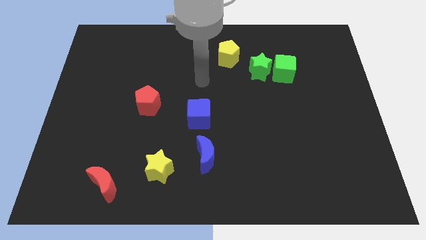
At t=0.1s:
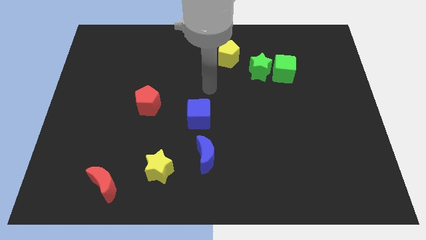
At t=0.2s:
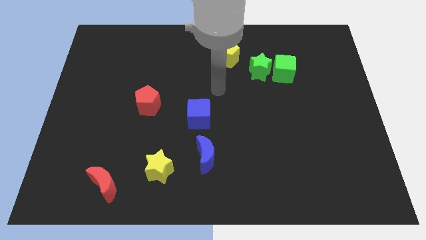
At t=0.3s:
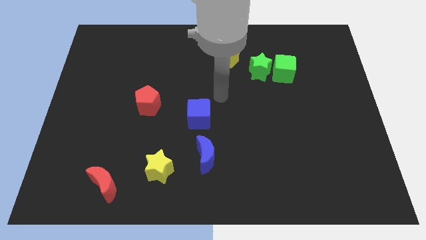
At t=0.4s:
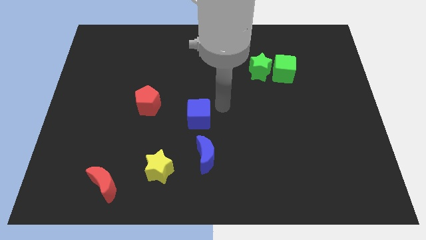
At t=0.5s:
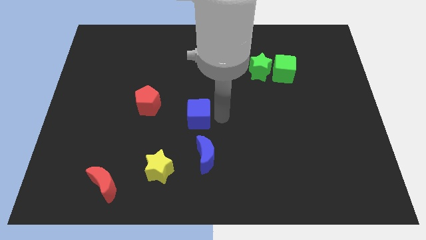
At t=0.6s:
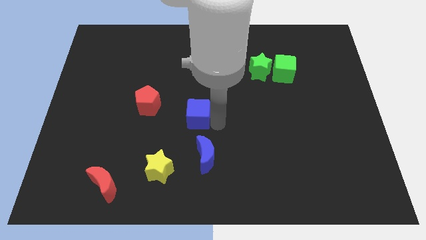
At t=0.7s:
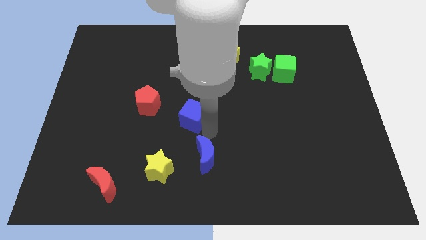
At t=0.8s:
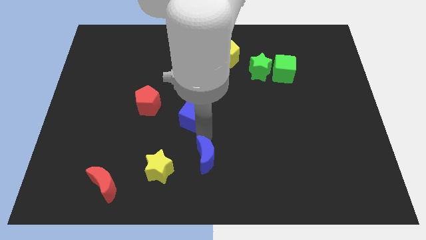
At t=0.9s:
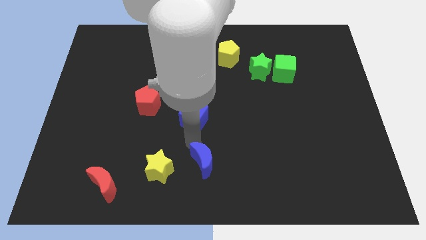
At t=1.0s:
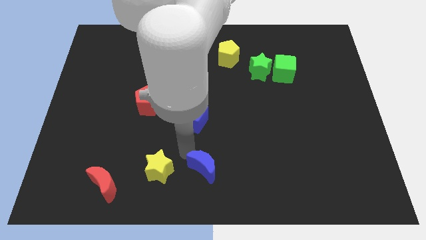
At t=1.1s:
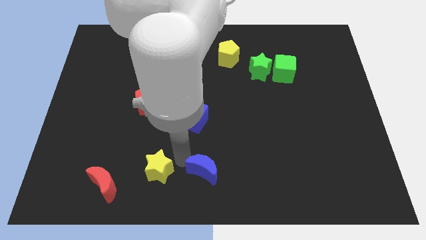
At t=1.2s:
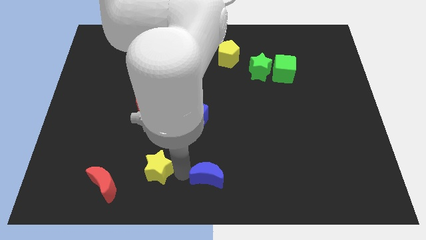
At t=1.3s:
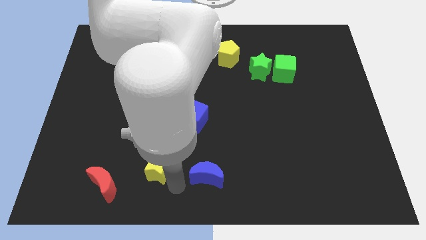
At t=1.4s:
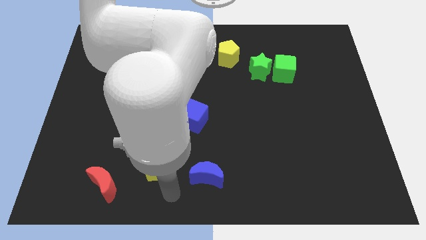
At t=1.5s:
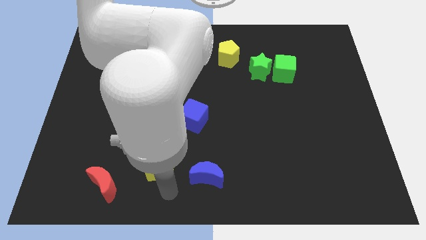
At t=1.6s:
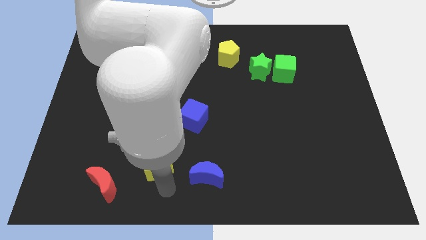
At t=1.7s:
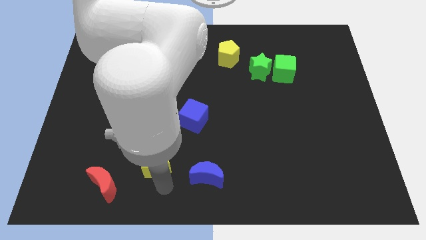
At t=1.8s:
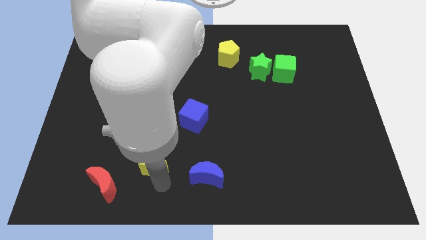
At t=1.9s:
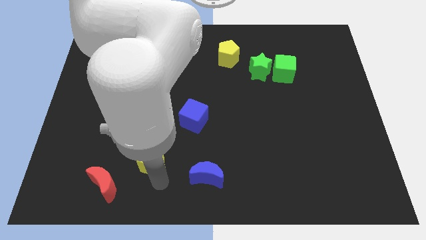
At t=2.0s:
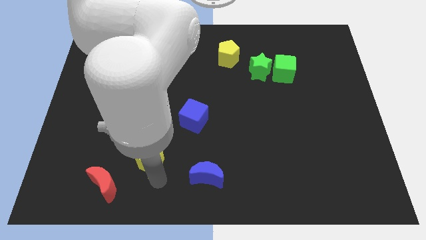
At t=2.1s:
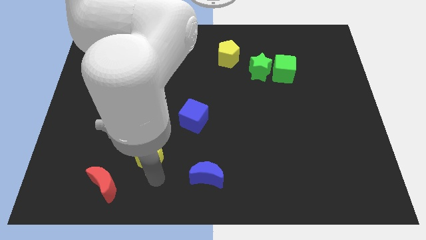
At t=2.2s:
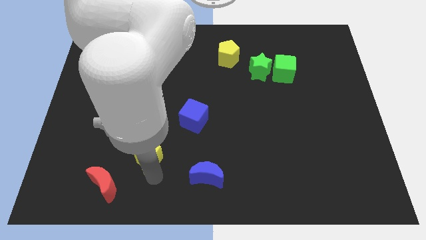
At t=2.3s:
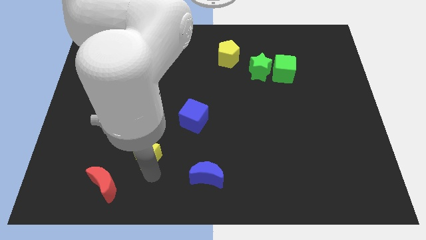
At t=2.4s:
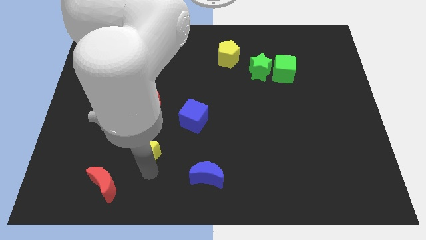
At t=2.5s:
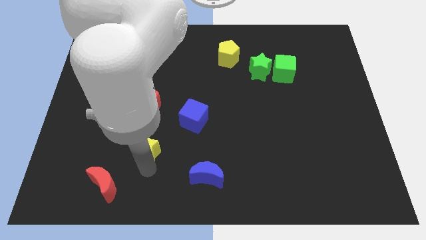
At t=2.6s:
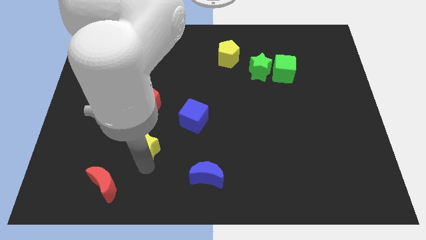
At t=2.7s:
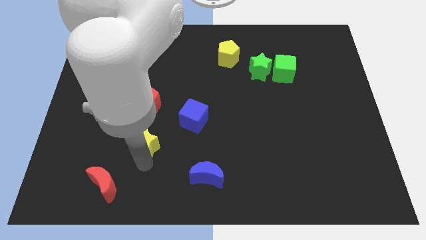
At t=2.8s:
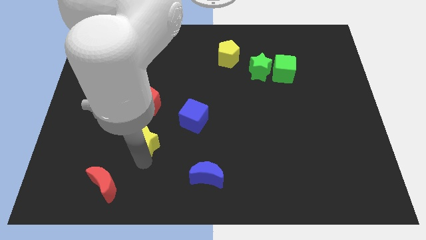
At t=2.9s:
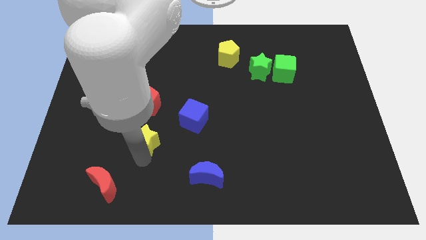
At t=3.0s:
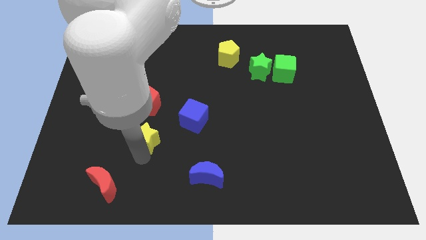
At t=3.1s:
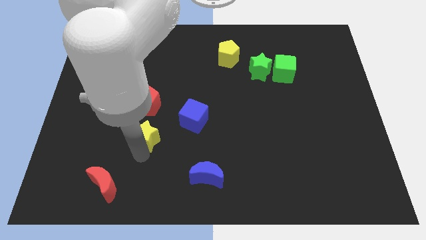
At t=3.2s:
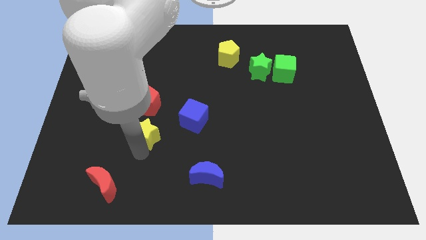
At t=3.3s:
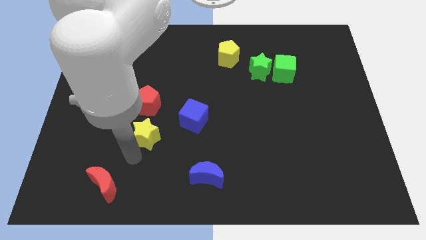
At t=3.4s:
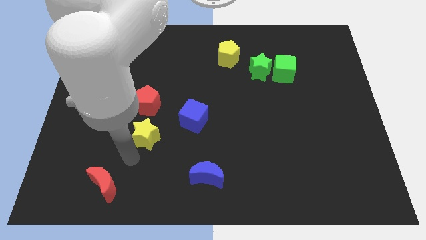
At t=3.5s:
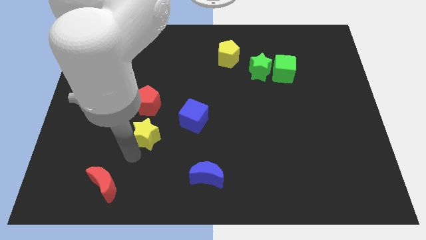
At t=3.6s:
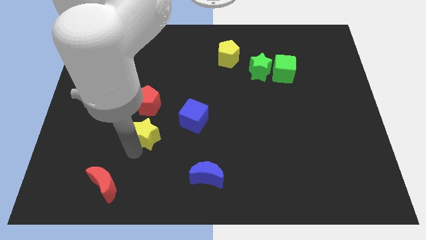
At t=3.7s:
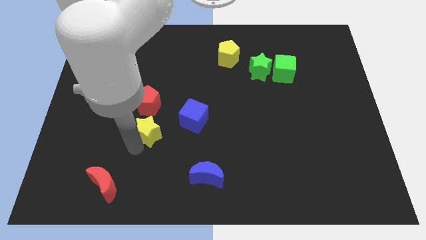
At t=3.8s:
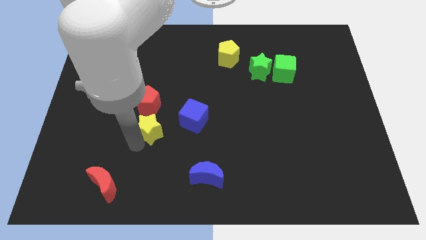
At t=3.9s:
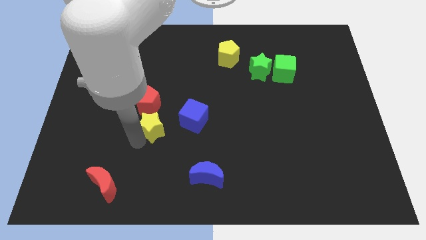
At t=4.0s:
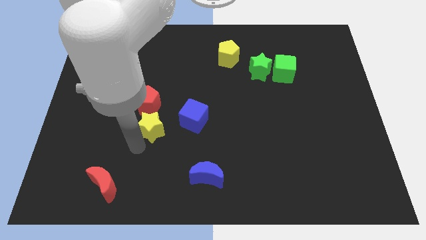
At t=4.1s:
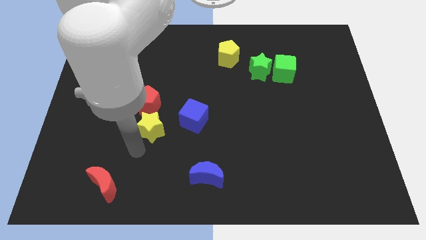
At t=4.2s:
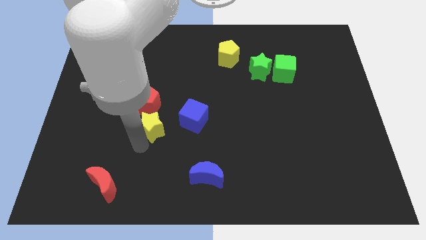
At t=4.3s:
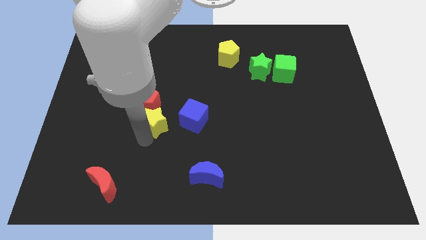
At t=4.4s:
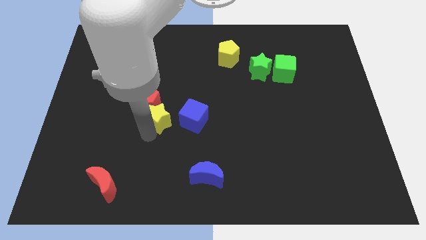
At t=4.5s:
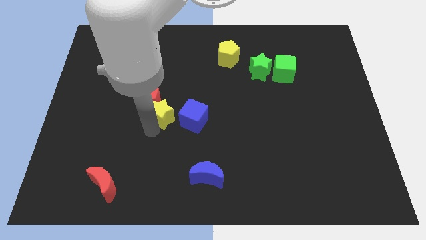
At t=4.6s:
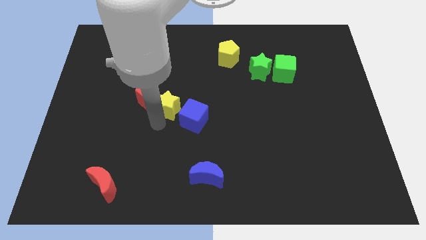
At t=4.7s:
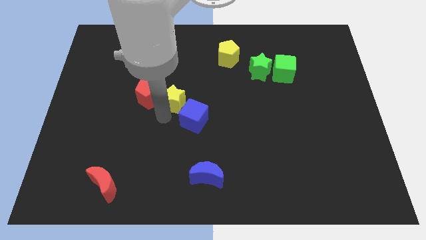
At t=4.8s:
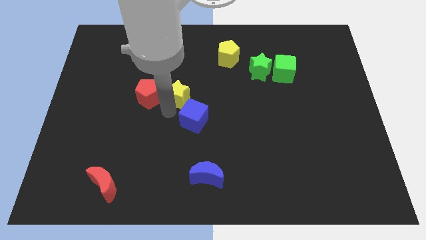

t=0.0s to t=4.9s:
push the yellow star diagonally up and to the right of the red pentagon

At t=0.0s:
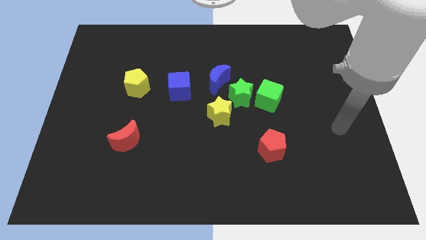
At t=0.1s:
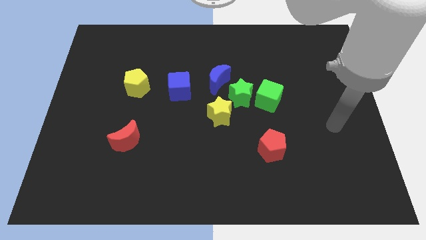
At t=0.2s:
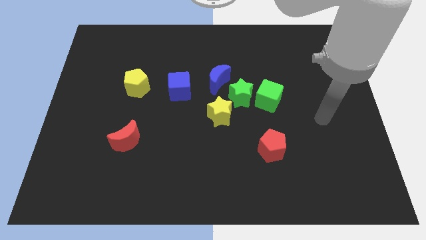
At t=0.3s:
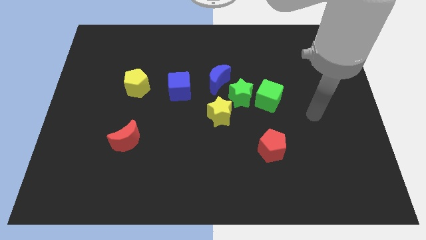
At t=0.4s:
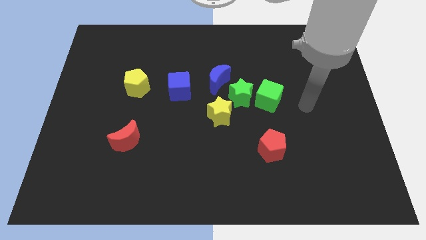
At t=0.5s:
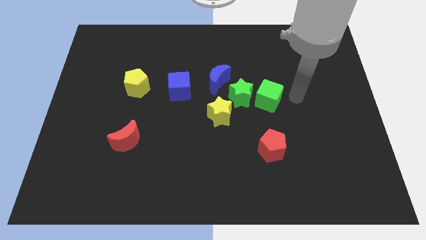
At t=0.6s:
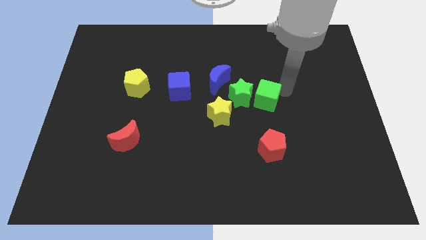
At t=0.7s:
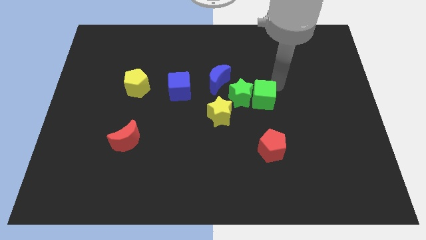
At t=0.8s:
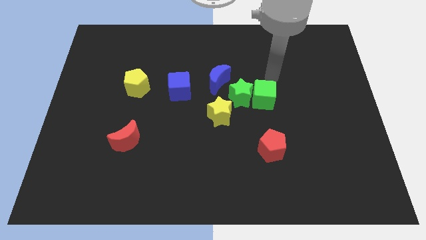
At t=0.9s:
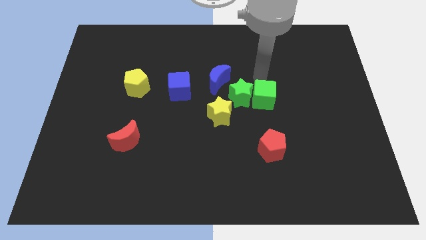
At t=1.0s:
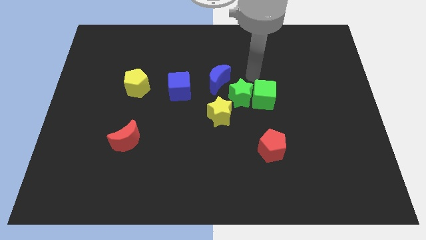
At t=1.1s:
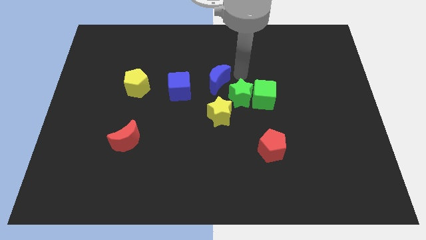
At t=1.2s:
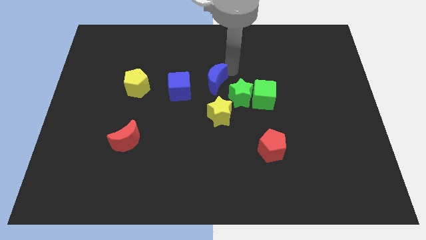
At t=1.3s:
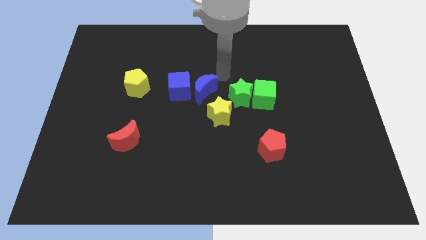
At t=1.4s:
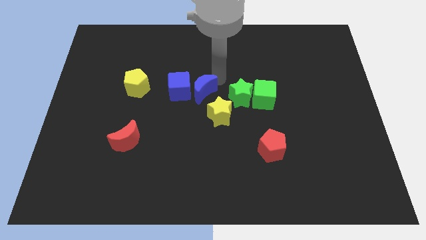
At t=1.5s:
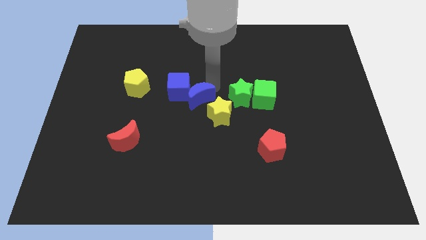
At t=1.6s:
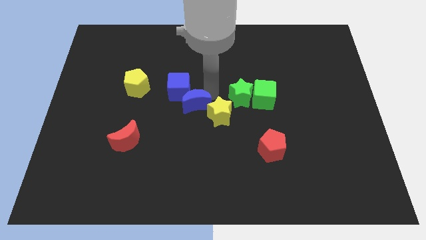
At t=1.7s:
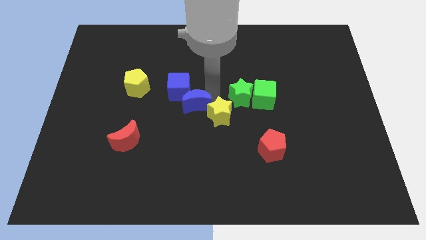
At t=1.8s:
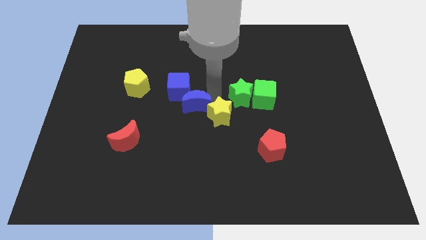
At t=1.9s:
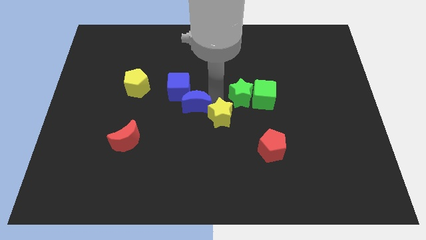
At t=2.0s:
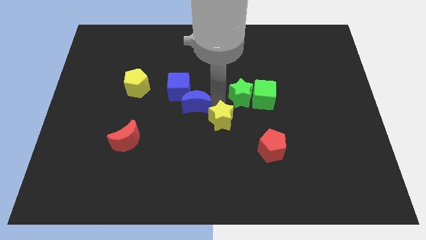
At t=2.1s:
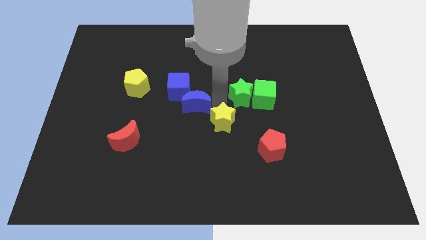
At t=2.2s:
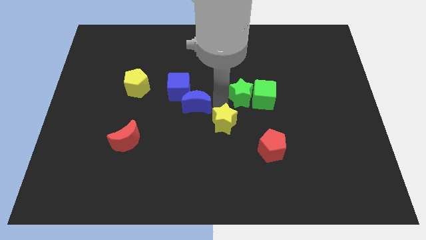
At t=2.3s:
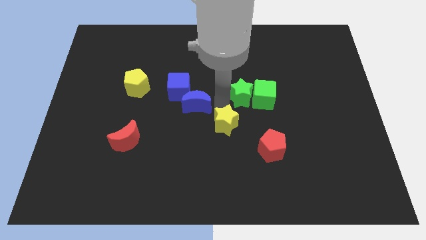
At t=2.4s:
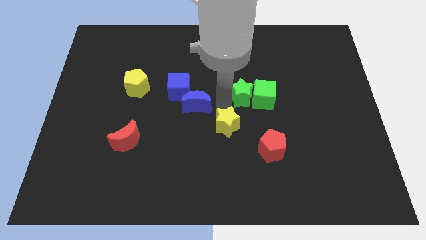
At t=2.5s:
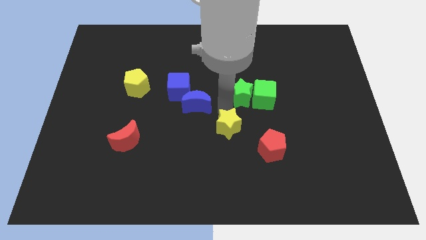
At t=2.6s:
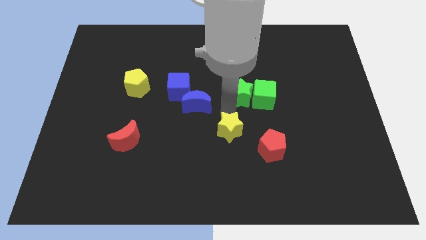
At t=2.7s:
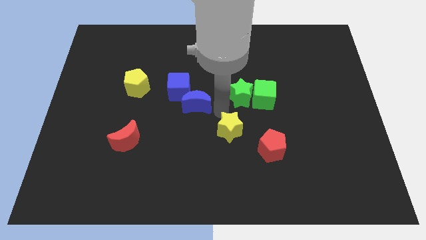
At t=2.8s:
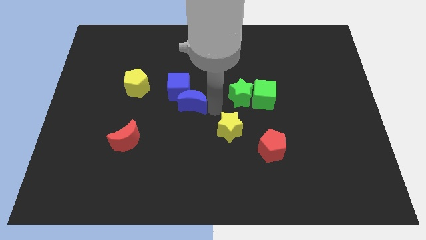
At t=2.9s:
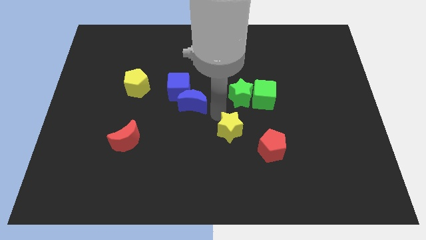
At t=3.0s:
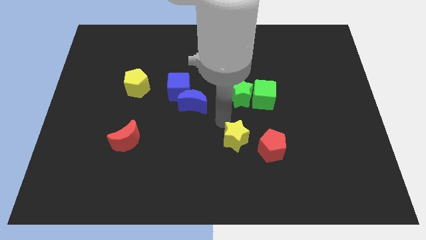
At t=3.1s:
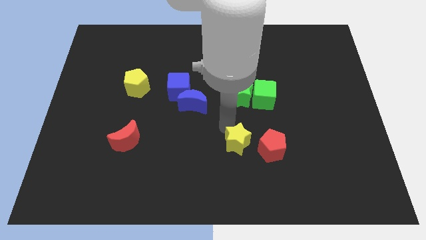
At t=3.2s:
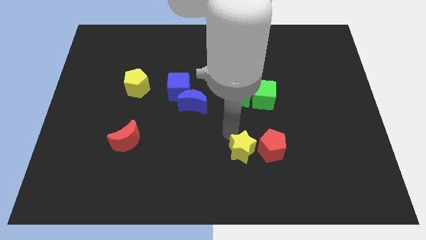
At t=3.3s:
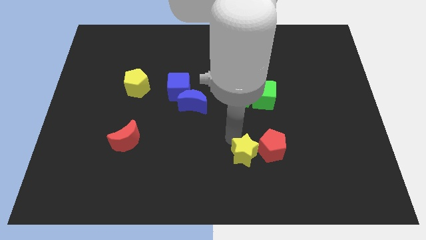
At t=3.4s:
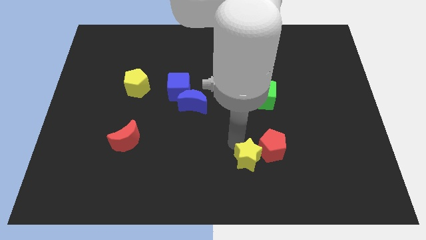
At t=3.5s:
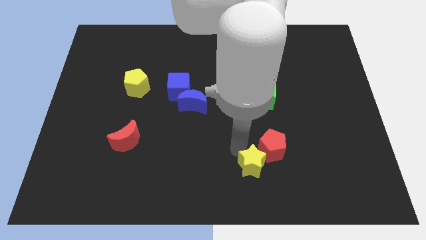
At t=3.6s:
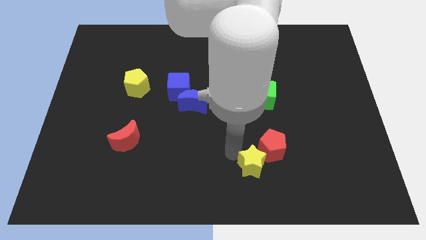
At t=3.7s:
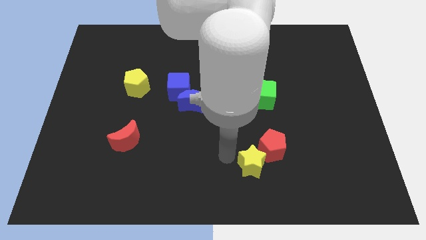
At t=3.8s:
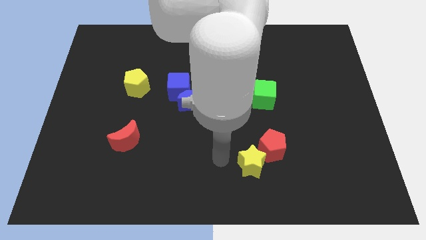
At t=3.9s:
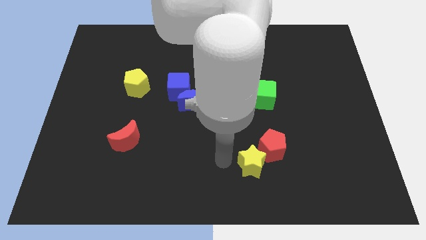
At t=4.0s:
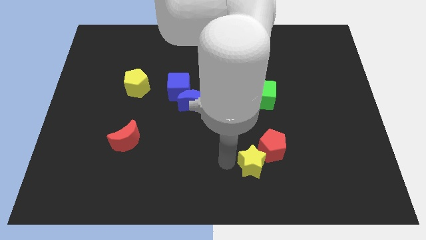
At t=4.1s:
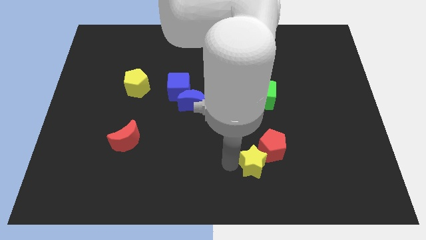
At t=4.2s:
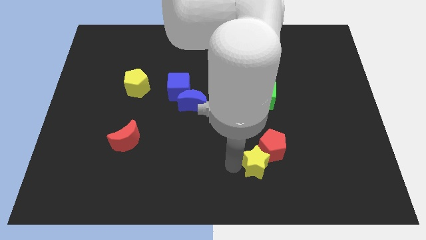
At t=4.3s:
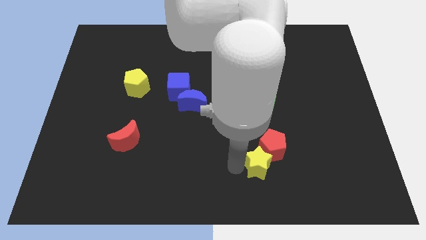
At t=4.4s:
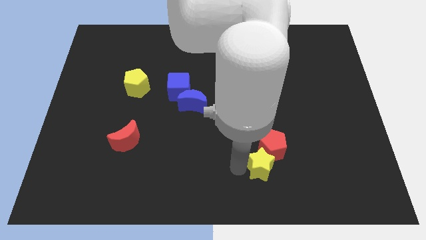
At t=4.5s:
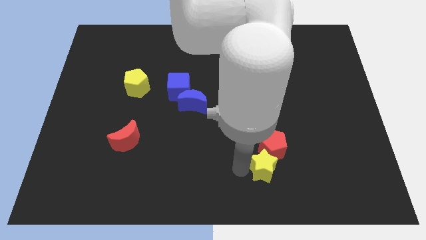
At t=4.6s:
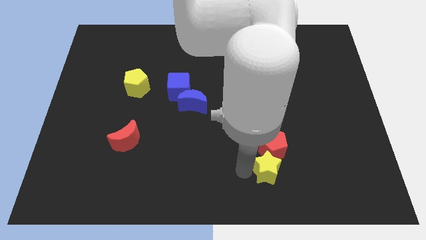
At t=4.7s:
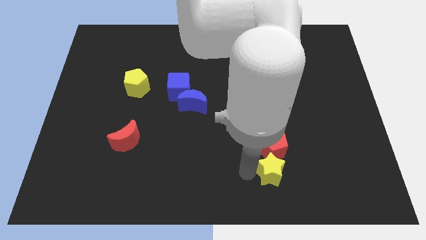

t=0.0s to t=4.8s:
push the yellow star diagonally down and to the right of the red pentagon
